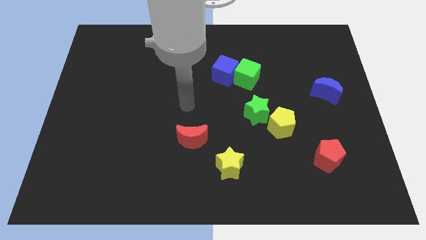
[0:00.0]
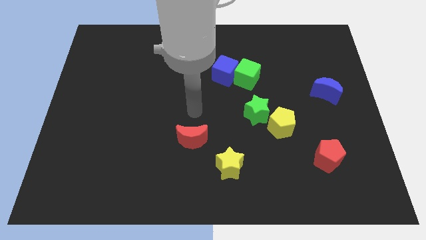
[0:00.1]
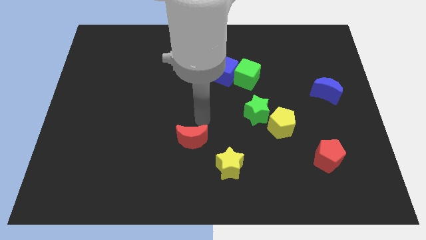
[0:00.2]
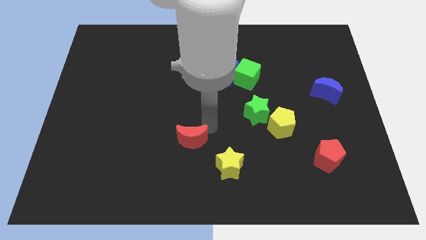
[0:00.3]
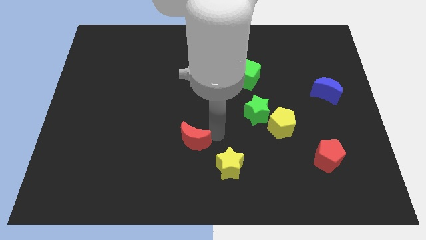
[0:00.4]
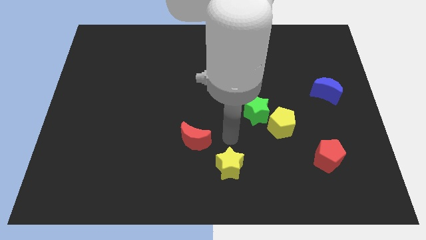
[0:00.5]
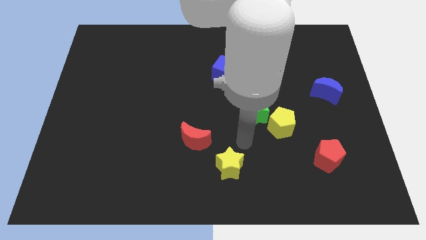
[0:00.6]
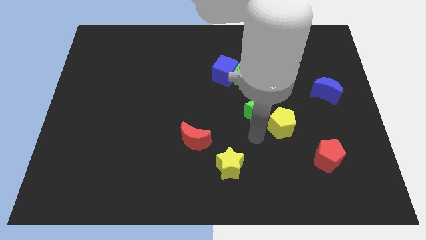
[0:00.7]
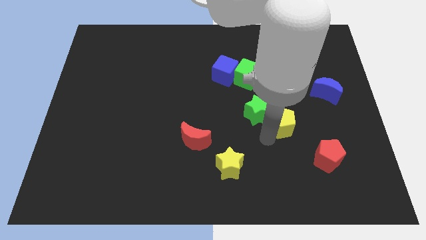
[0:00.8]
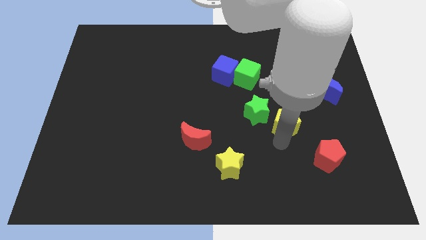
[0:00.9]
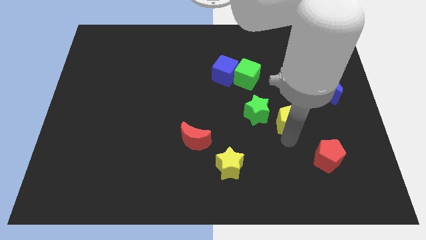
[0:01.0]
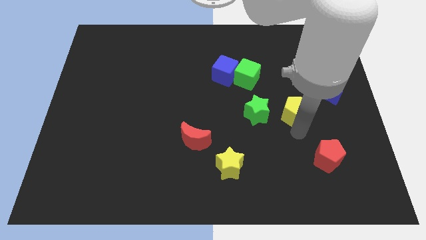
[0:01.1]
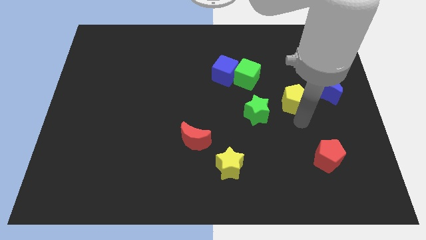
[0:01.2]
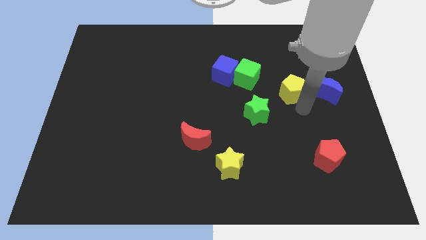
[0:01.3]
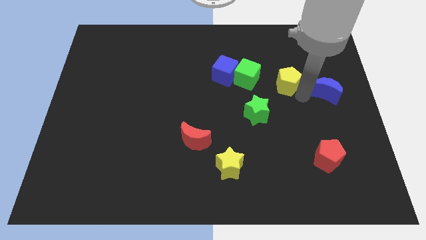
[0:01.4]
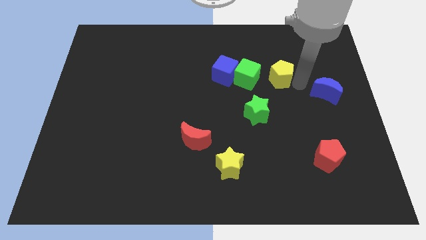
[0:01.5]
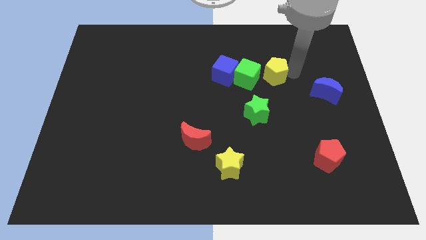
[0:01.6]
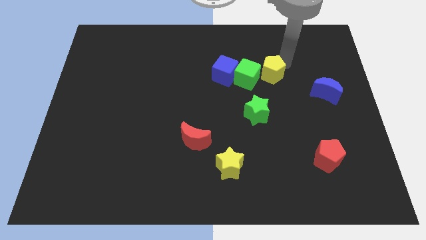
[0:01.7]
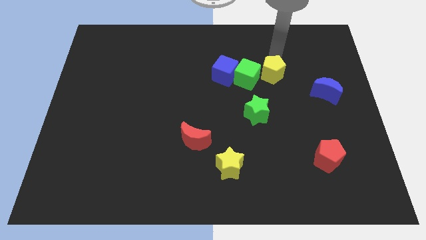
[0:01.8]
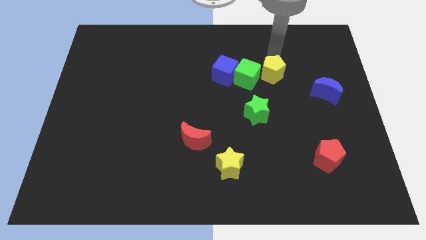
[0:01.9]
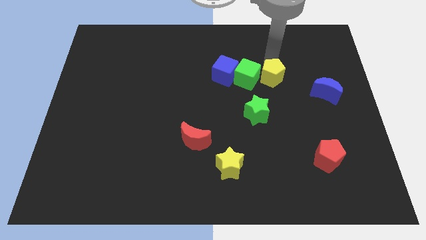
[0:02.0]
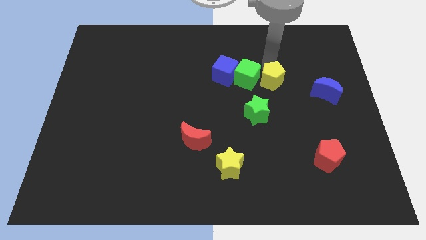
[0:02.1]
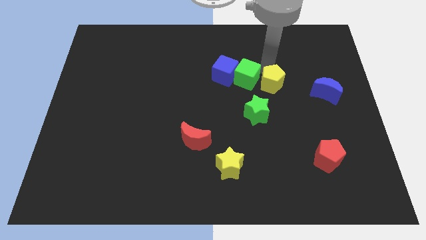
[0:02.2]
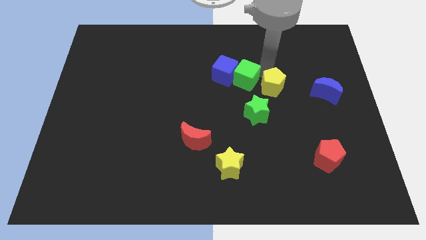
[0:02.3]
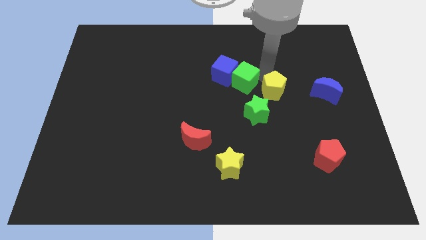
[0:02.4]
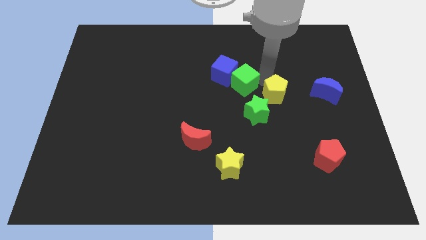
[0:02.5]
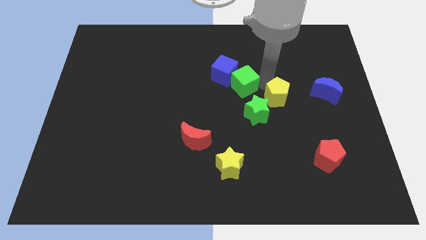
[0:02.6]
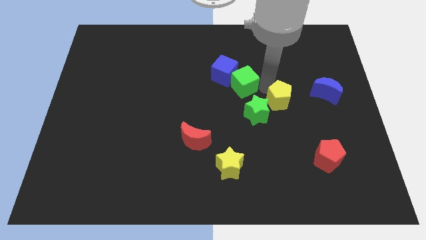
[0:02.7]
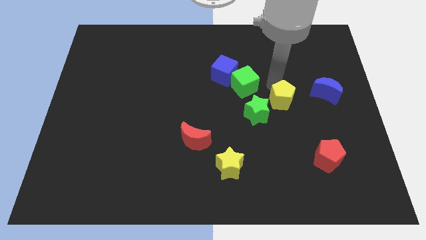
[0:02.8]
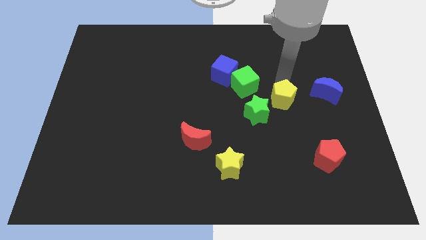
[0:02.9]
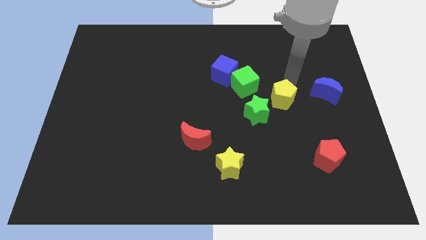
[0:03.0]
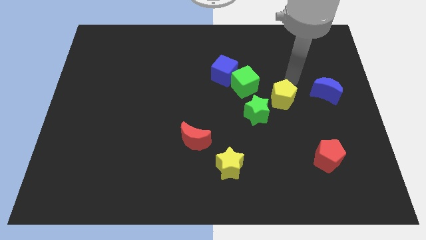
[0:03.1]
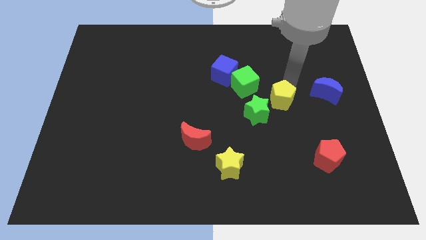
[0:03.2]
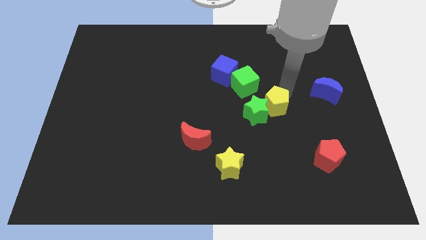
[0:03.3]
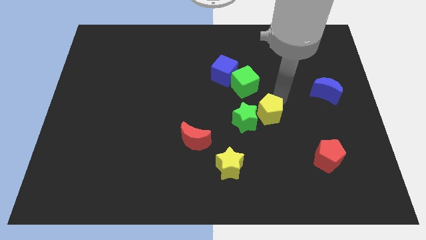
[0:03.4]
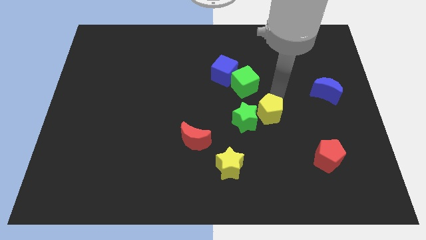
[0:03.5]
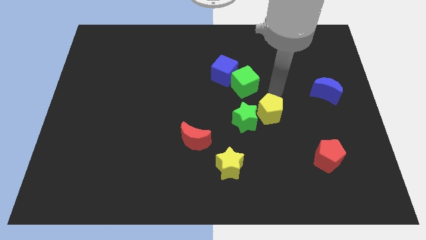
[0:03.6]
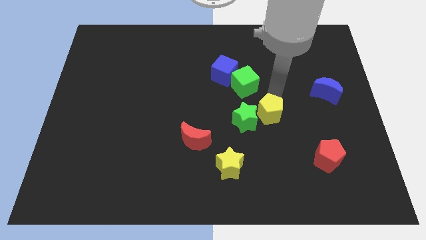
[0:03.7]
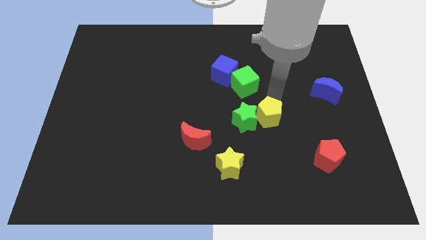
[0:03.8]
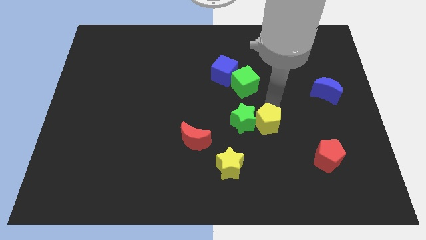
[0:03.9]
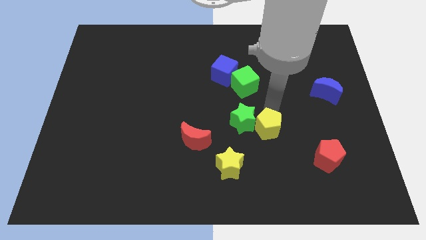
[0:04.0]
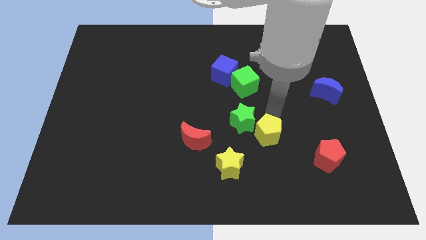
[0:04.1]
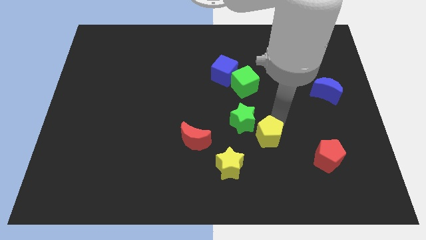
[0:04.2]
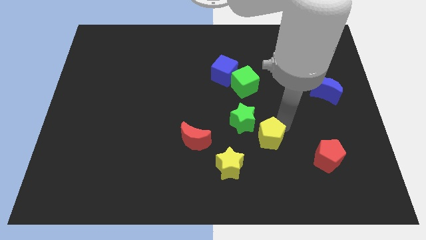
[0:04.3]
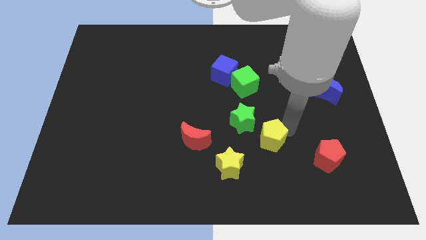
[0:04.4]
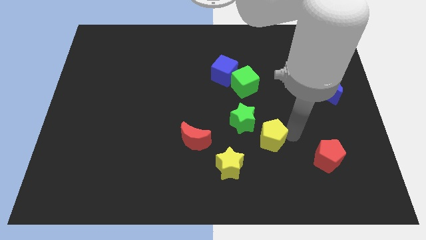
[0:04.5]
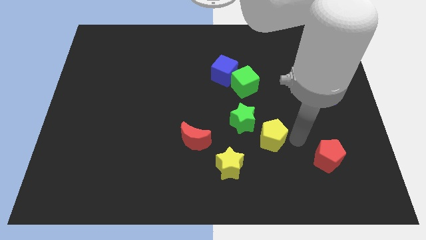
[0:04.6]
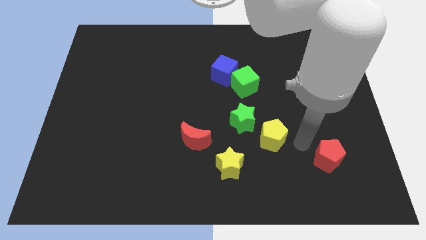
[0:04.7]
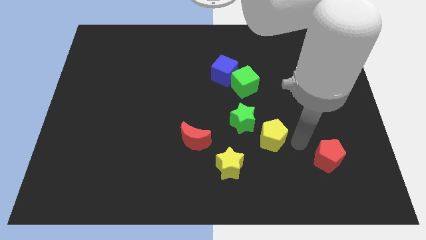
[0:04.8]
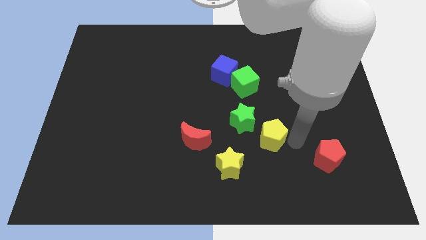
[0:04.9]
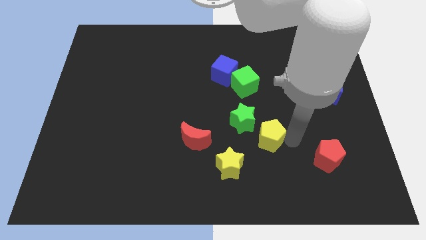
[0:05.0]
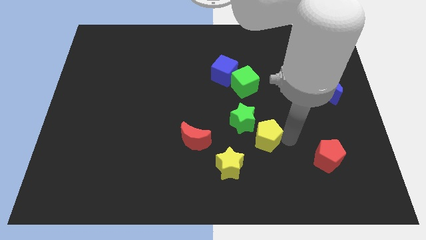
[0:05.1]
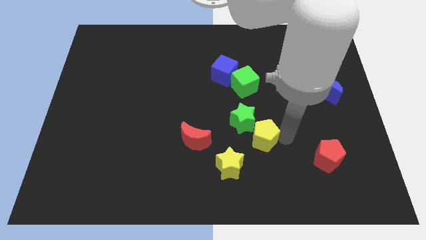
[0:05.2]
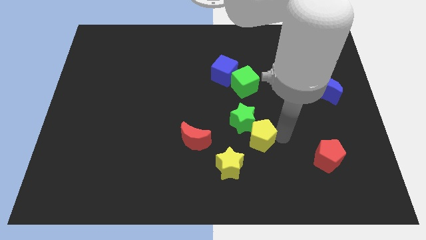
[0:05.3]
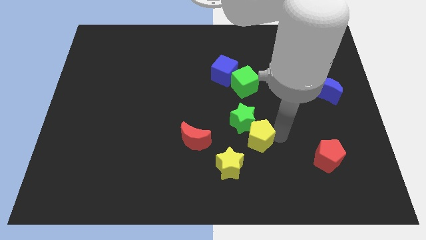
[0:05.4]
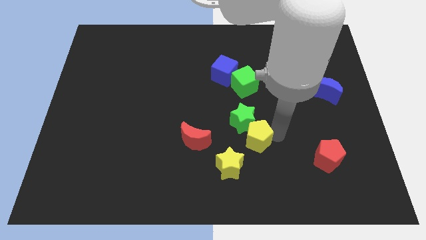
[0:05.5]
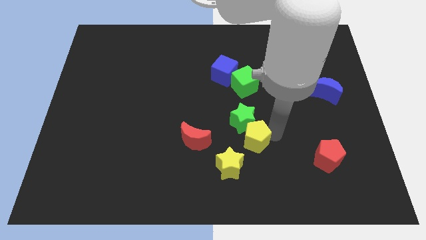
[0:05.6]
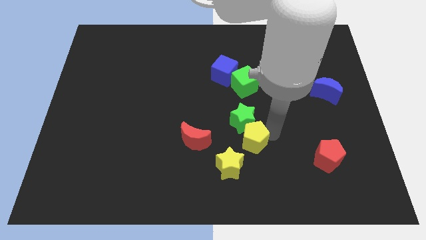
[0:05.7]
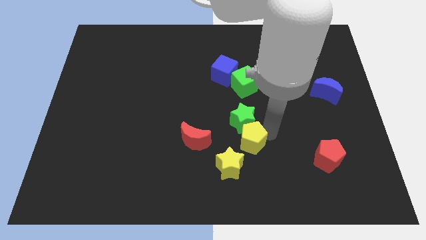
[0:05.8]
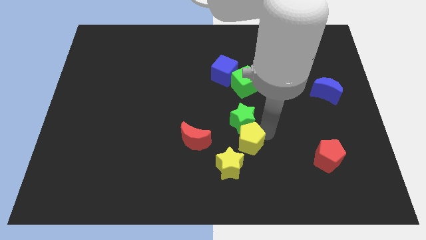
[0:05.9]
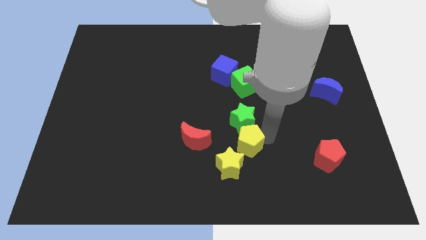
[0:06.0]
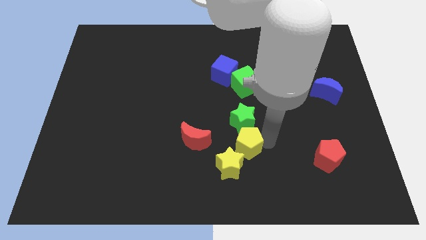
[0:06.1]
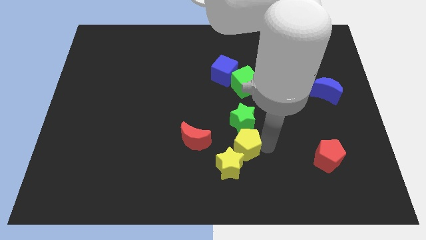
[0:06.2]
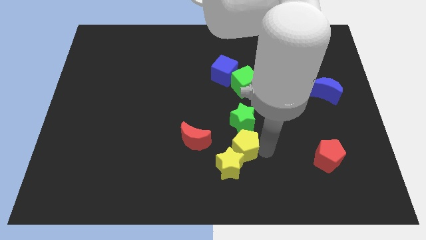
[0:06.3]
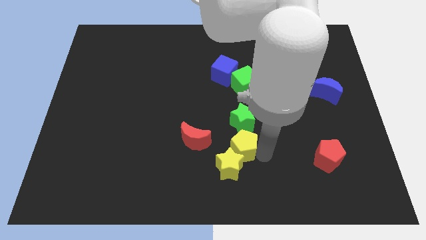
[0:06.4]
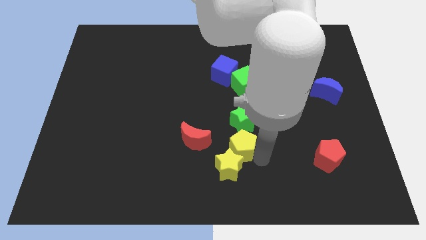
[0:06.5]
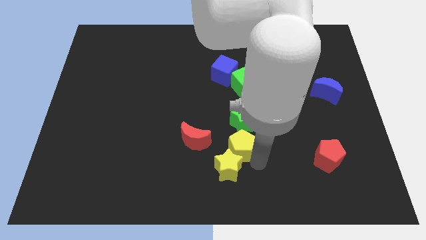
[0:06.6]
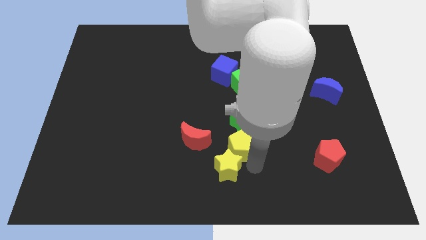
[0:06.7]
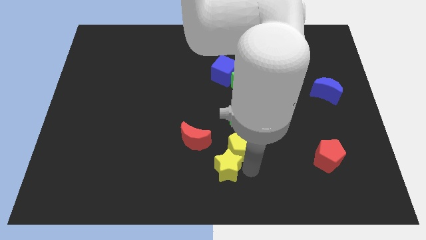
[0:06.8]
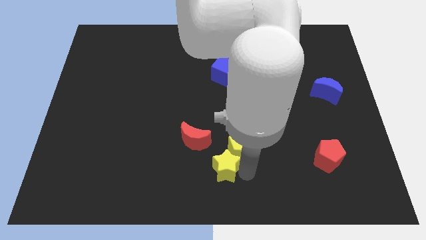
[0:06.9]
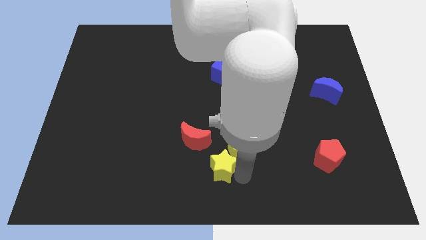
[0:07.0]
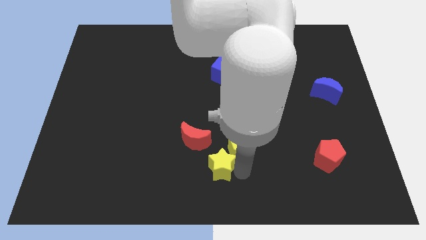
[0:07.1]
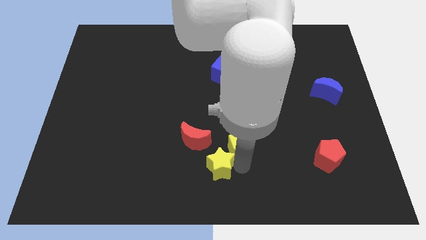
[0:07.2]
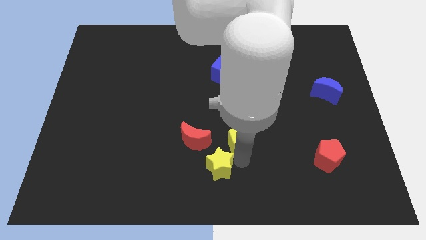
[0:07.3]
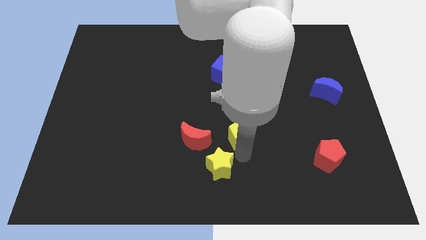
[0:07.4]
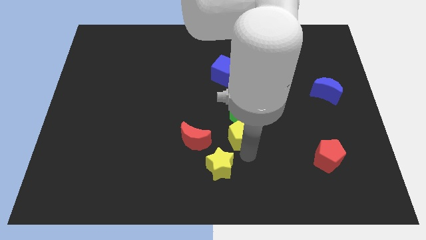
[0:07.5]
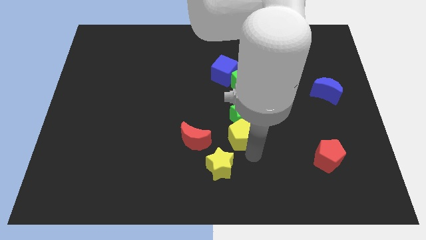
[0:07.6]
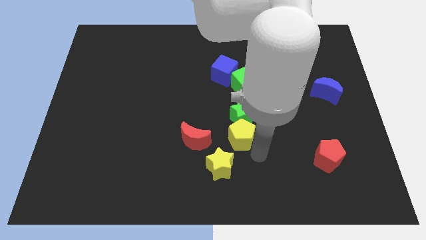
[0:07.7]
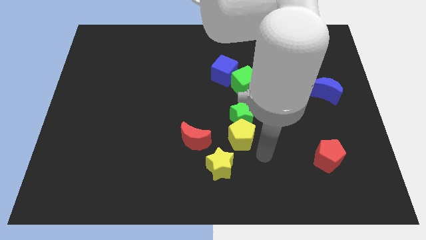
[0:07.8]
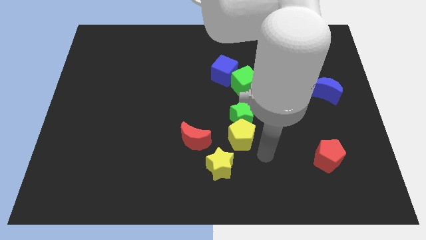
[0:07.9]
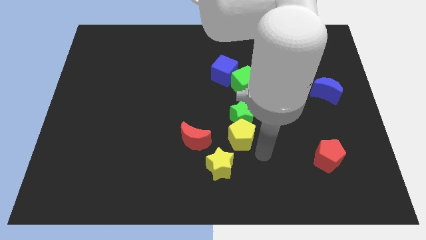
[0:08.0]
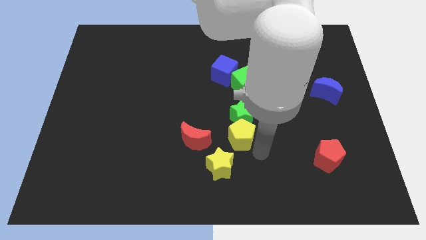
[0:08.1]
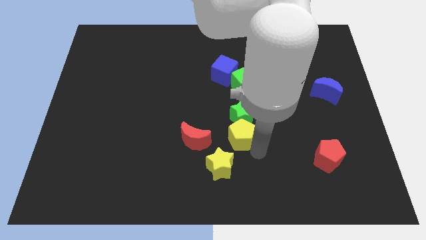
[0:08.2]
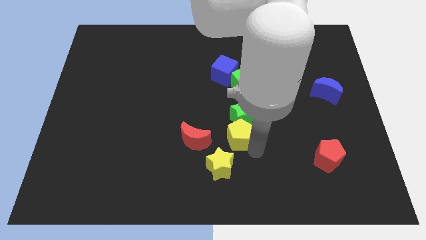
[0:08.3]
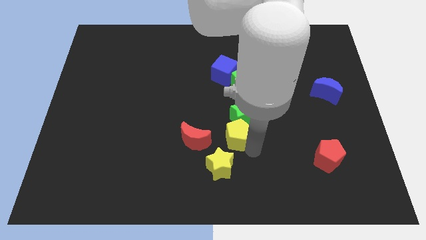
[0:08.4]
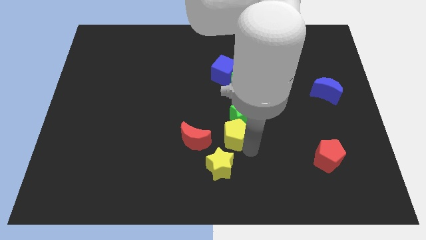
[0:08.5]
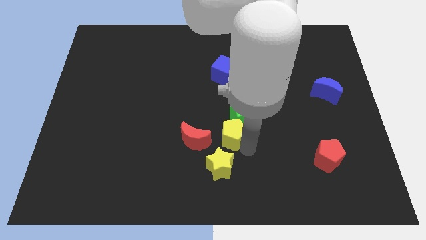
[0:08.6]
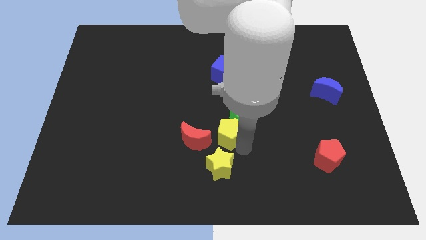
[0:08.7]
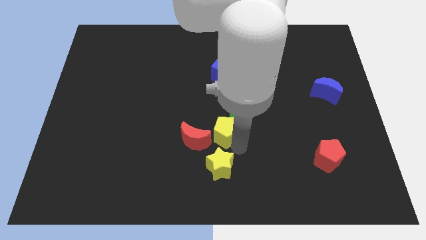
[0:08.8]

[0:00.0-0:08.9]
slide the yellow pentagon just left of the green star
